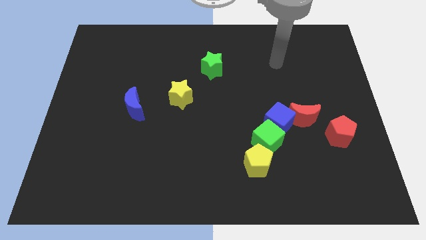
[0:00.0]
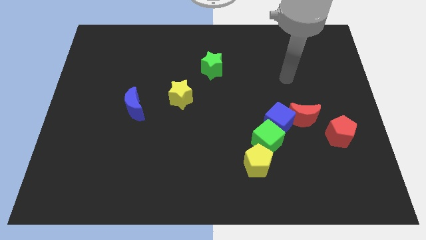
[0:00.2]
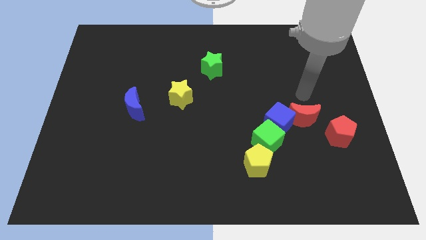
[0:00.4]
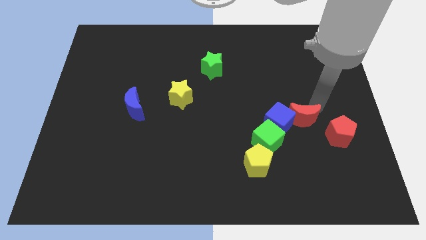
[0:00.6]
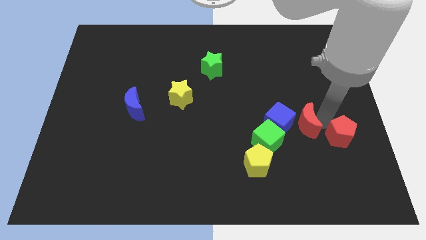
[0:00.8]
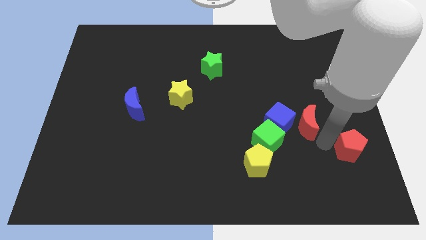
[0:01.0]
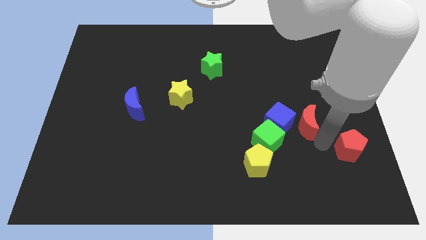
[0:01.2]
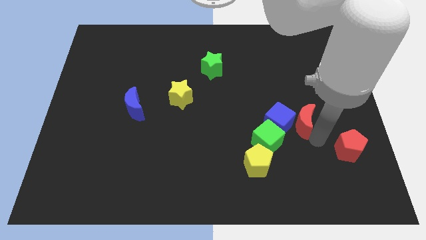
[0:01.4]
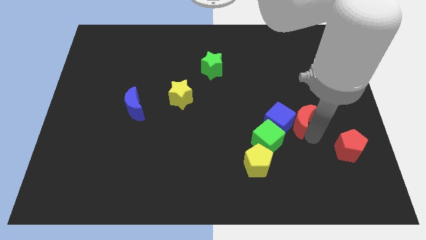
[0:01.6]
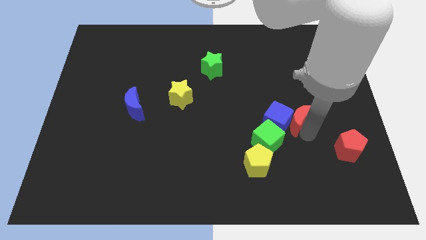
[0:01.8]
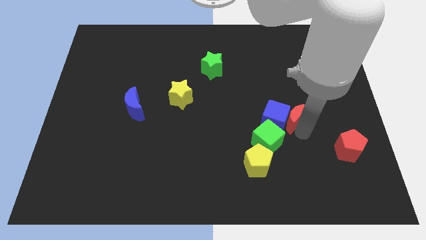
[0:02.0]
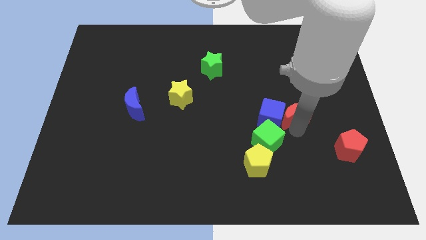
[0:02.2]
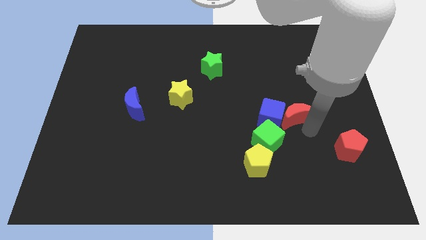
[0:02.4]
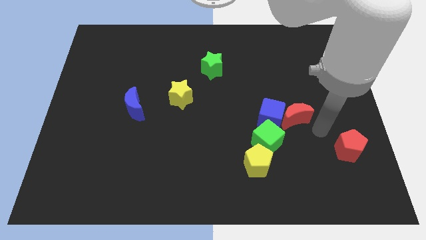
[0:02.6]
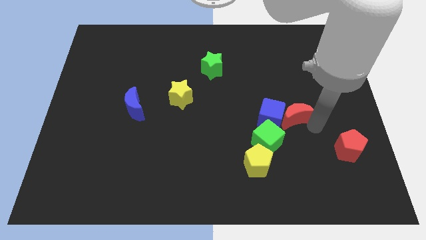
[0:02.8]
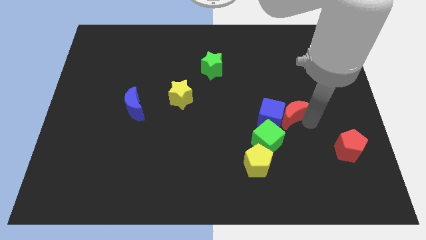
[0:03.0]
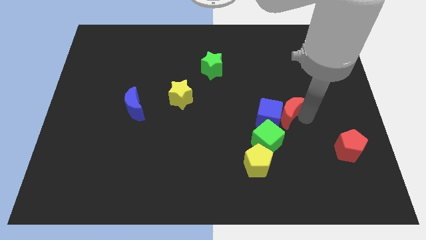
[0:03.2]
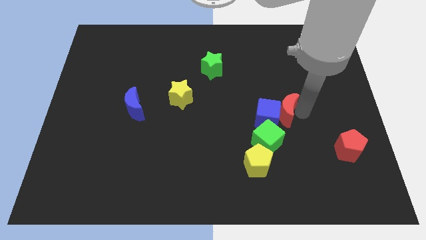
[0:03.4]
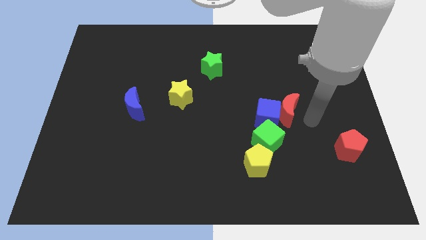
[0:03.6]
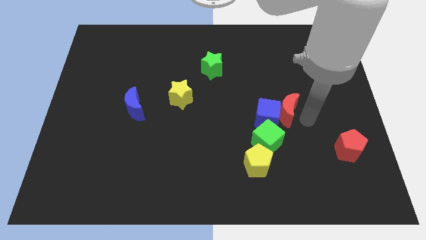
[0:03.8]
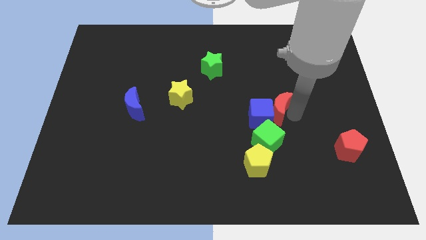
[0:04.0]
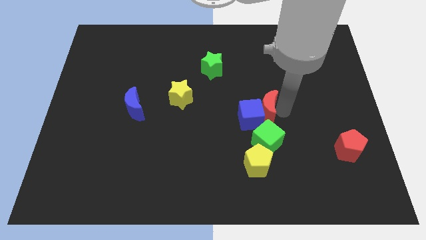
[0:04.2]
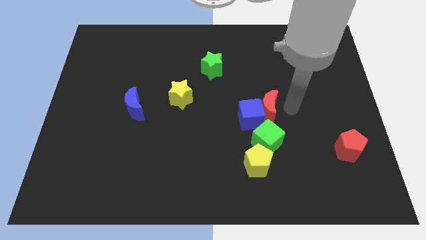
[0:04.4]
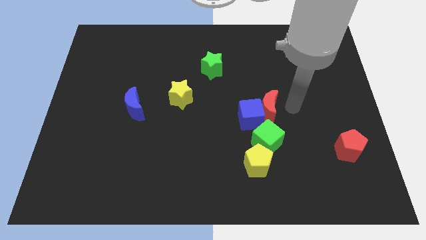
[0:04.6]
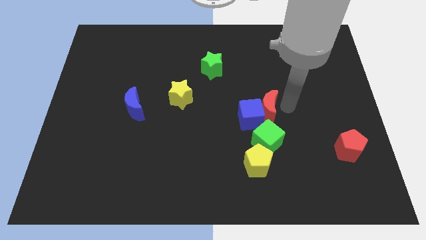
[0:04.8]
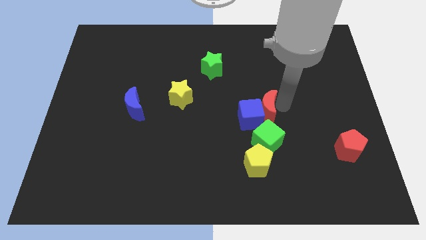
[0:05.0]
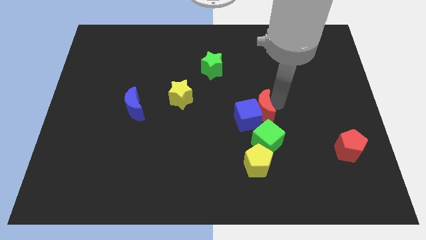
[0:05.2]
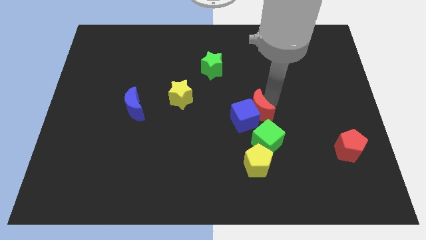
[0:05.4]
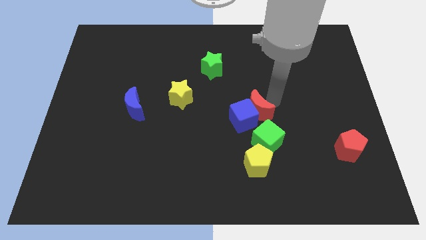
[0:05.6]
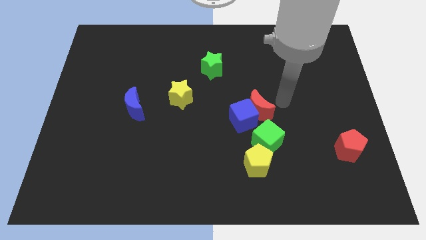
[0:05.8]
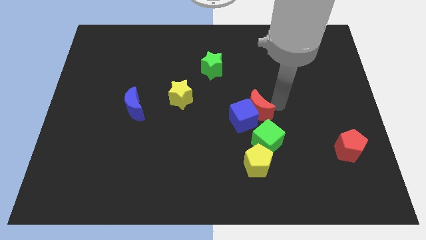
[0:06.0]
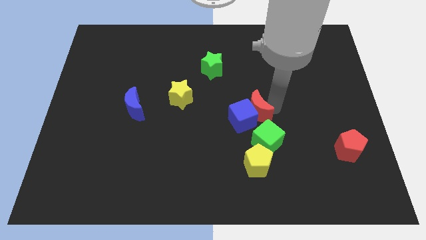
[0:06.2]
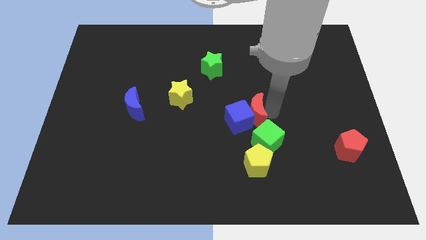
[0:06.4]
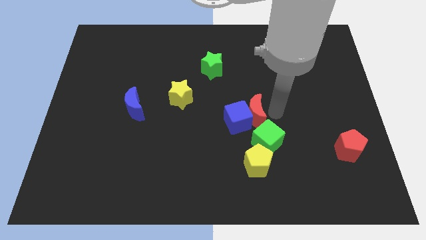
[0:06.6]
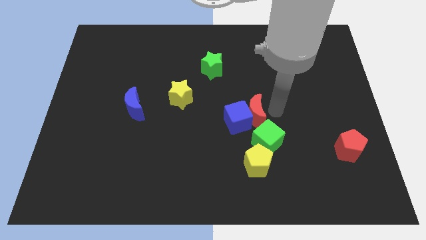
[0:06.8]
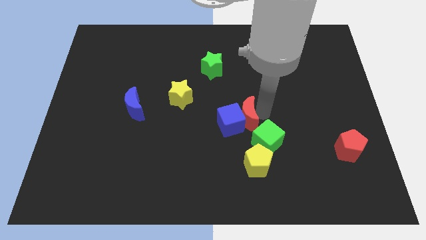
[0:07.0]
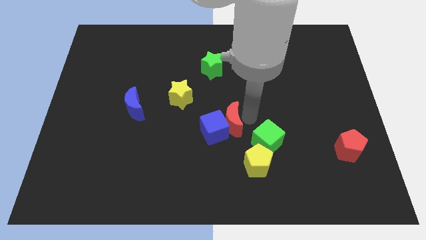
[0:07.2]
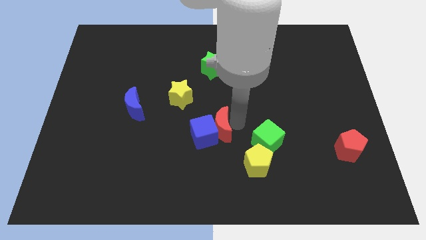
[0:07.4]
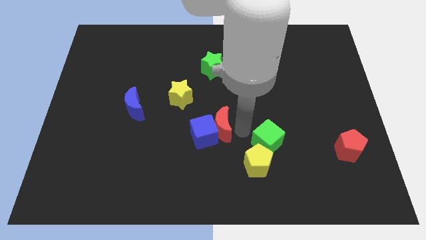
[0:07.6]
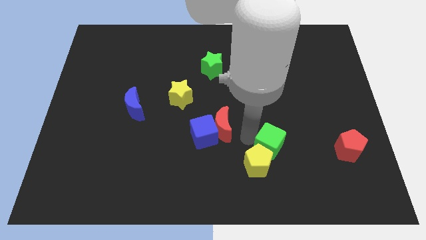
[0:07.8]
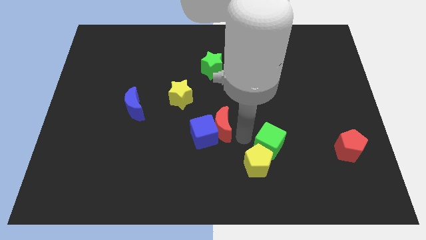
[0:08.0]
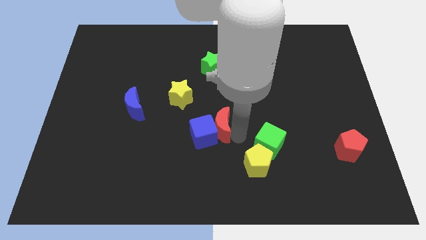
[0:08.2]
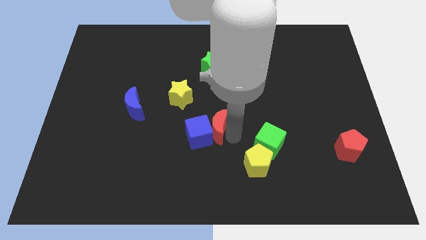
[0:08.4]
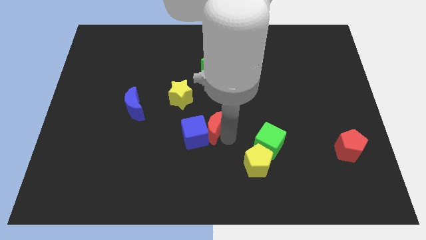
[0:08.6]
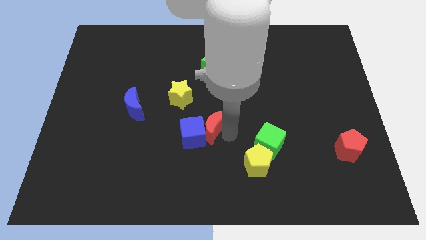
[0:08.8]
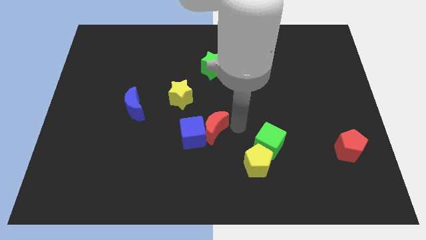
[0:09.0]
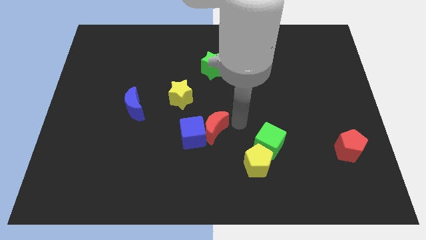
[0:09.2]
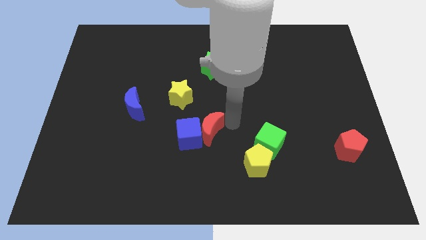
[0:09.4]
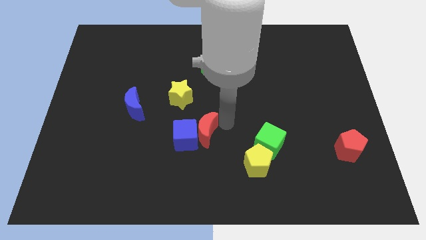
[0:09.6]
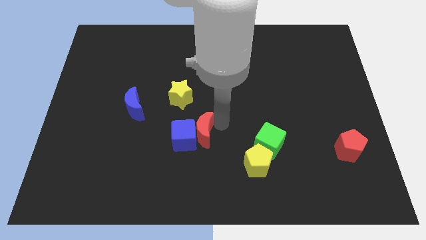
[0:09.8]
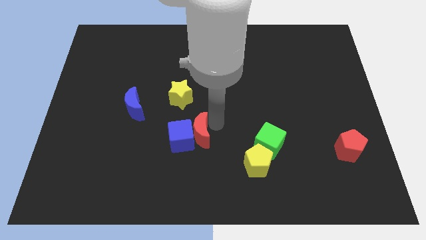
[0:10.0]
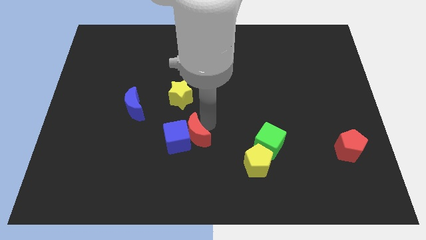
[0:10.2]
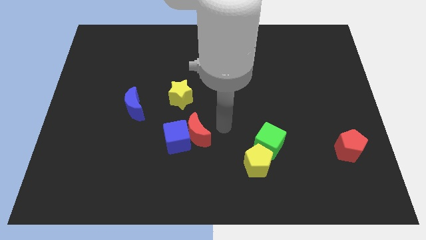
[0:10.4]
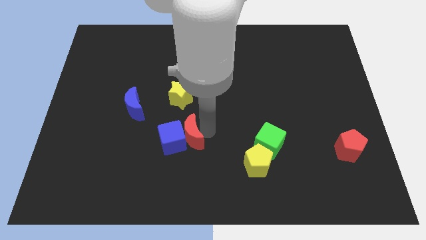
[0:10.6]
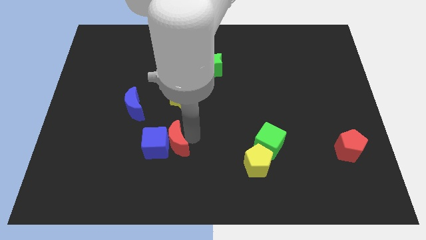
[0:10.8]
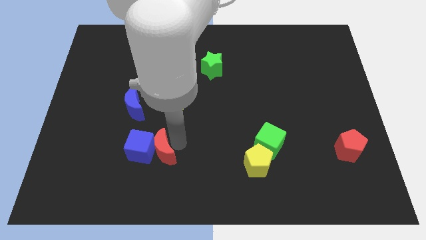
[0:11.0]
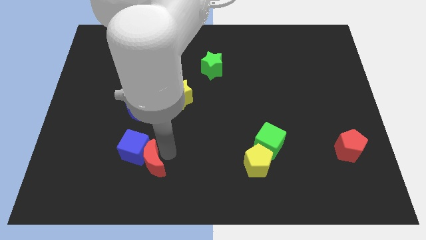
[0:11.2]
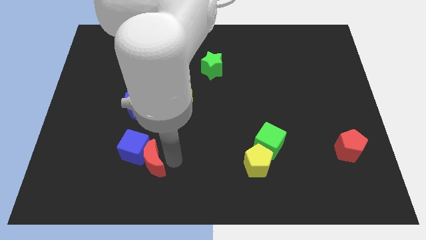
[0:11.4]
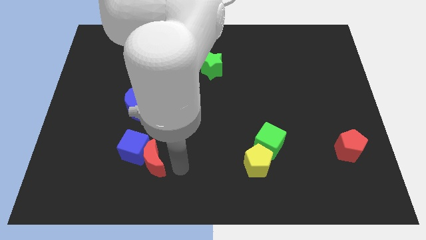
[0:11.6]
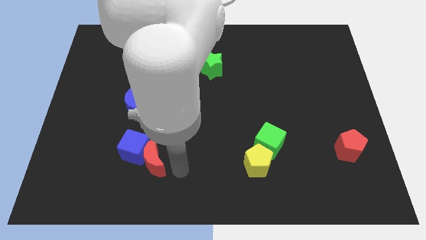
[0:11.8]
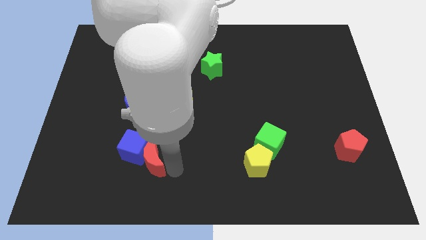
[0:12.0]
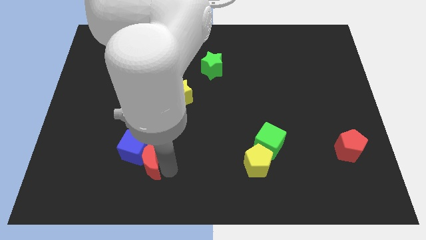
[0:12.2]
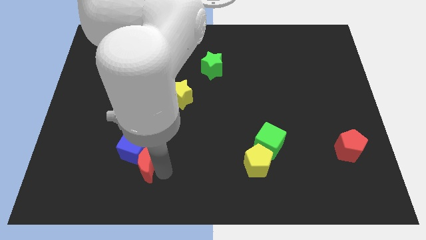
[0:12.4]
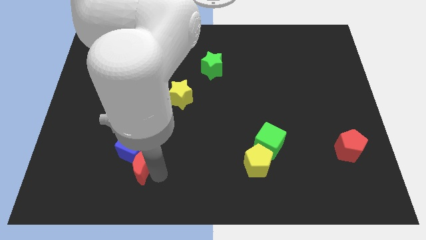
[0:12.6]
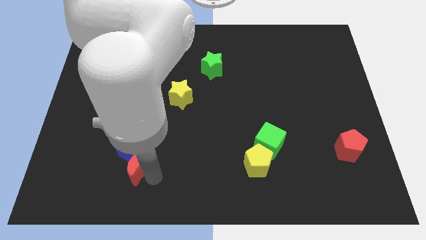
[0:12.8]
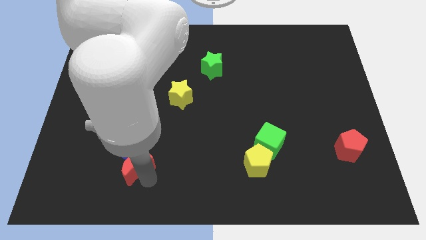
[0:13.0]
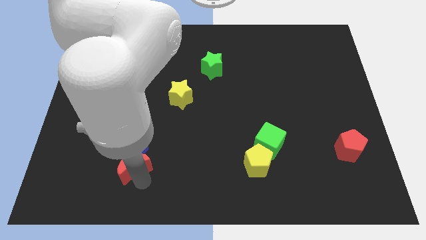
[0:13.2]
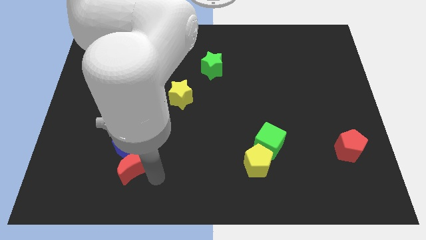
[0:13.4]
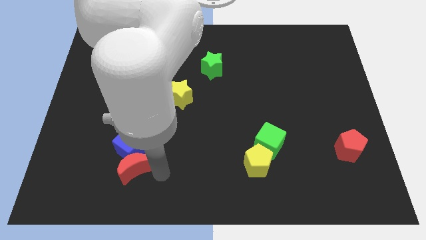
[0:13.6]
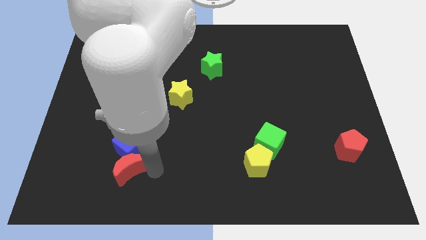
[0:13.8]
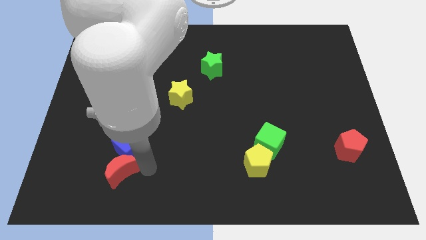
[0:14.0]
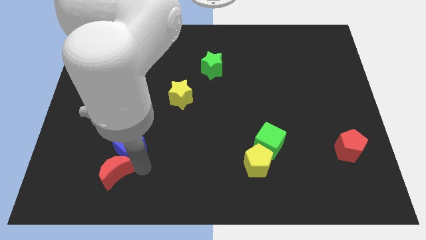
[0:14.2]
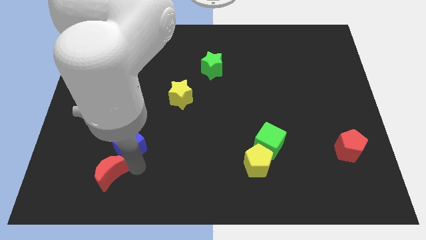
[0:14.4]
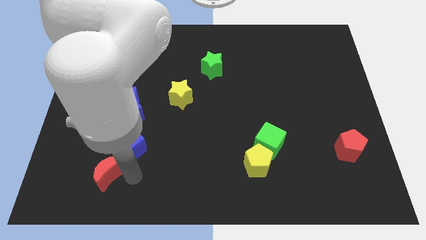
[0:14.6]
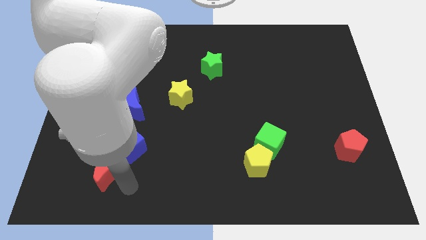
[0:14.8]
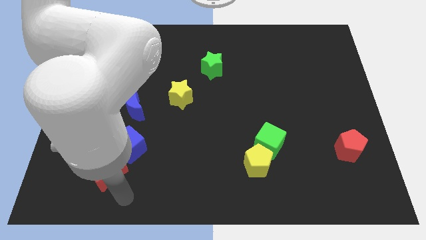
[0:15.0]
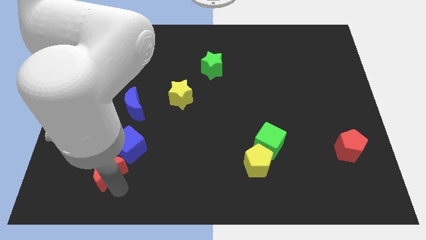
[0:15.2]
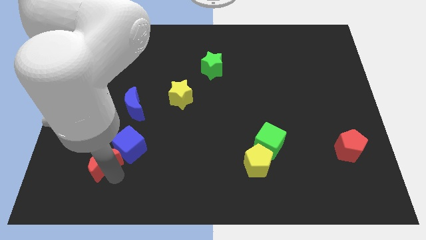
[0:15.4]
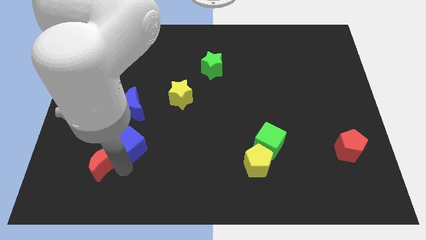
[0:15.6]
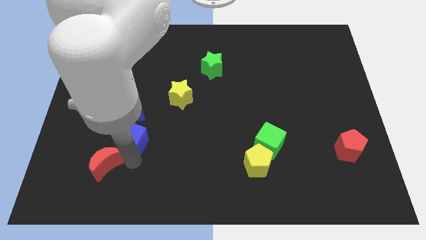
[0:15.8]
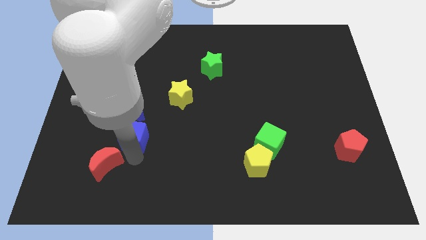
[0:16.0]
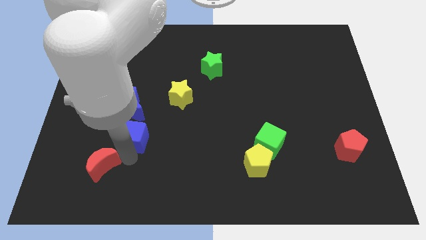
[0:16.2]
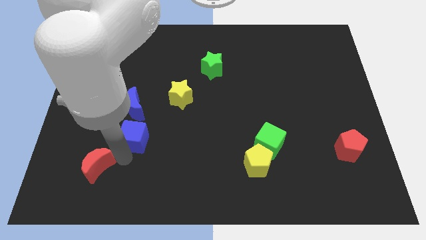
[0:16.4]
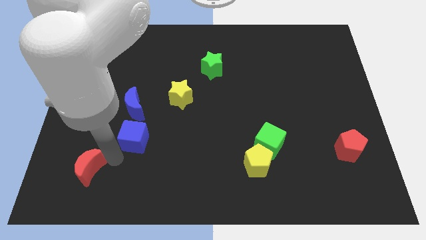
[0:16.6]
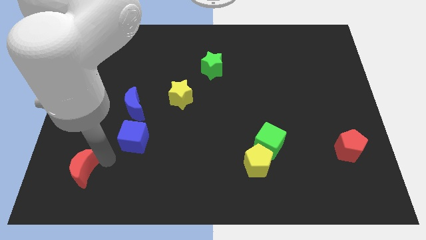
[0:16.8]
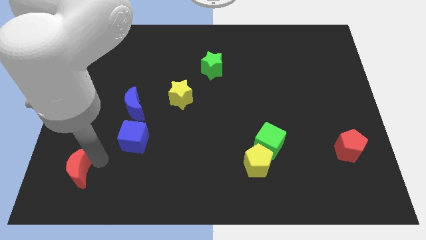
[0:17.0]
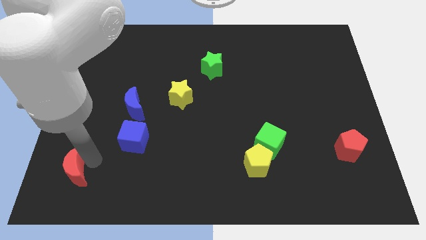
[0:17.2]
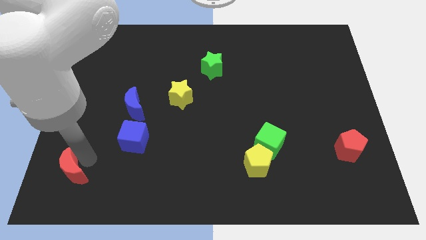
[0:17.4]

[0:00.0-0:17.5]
put the red moon to the bottom left corner
